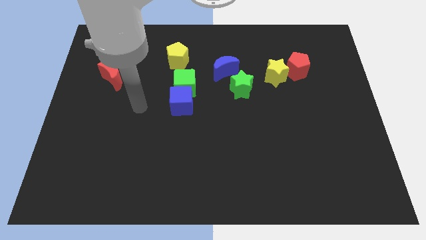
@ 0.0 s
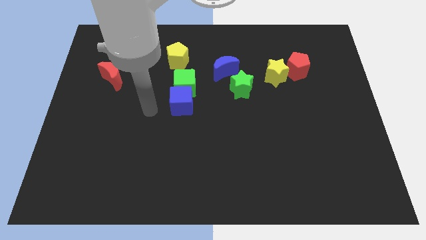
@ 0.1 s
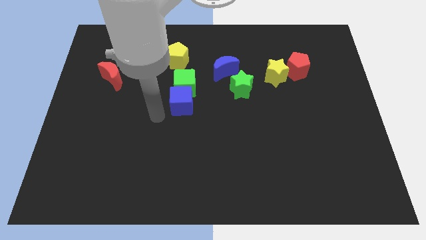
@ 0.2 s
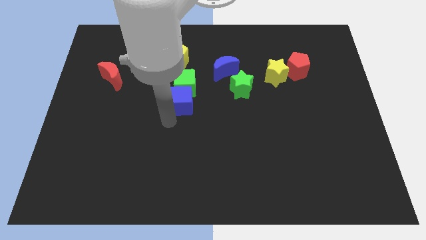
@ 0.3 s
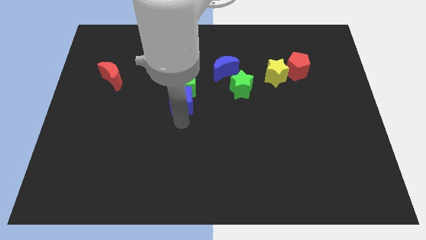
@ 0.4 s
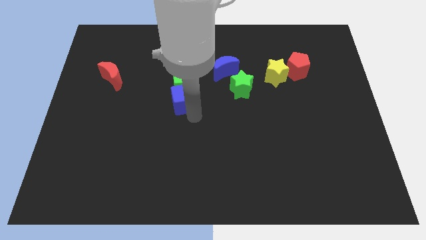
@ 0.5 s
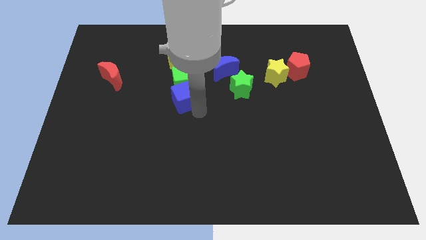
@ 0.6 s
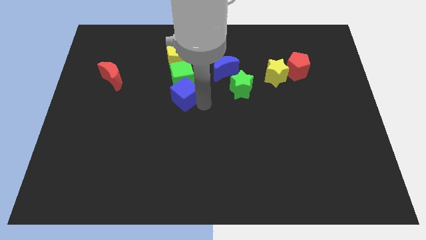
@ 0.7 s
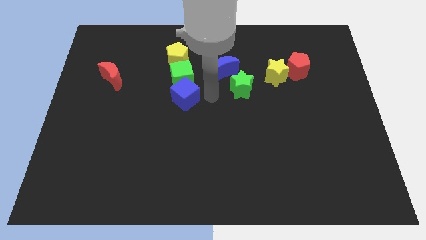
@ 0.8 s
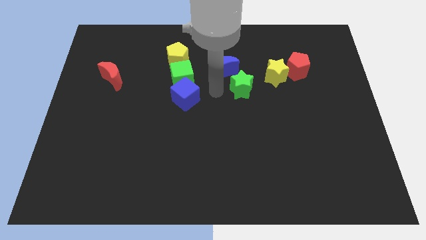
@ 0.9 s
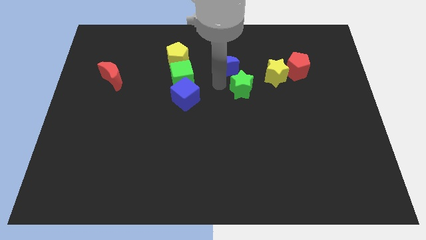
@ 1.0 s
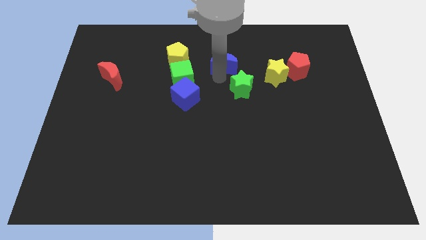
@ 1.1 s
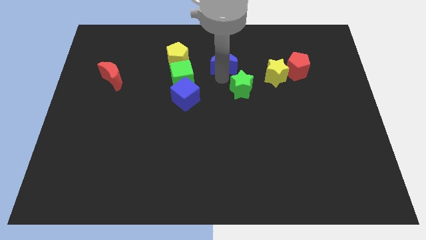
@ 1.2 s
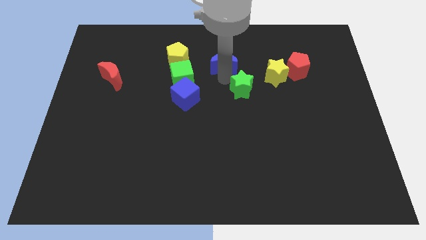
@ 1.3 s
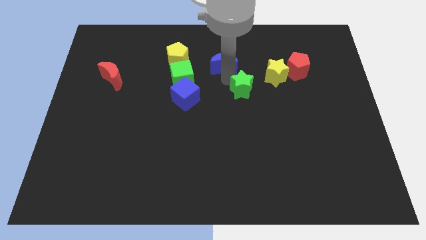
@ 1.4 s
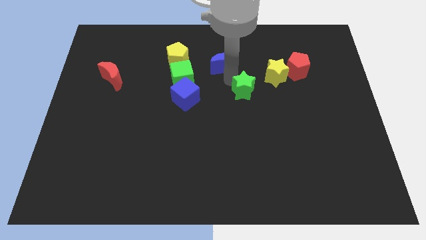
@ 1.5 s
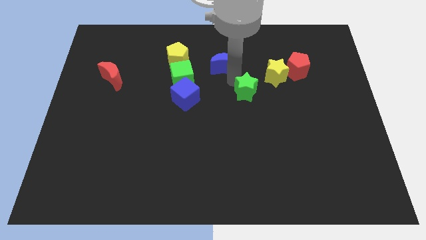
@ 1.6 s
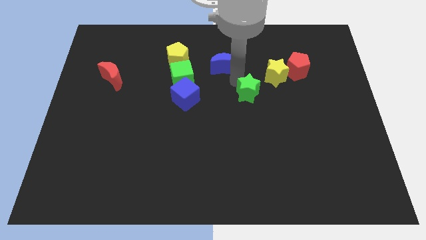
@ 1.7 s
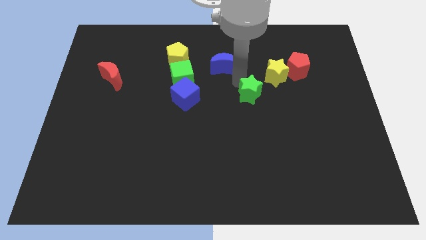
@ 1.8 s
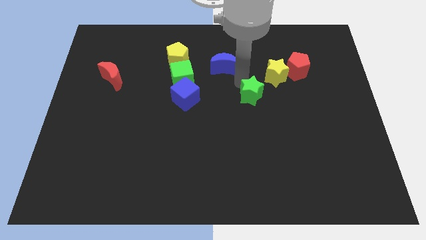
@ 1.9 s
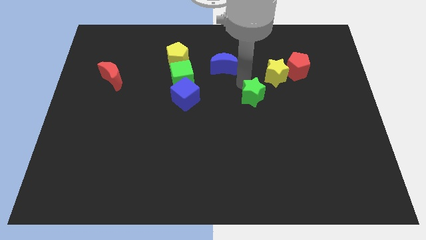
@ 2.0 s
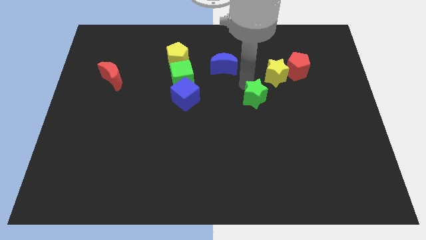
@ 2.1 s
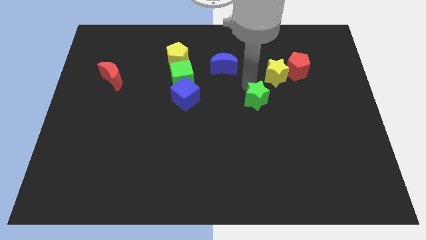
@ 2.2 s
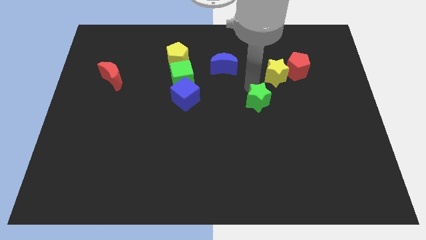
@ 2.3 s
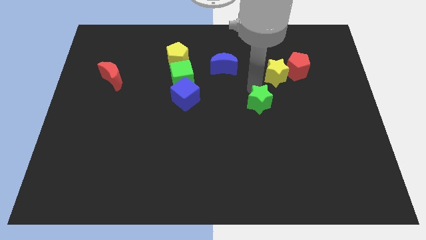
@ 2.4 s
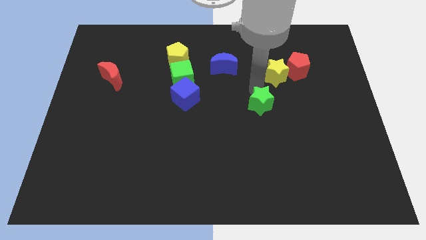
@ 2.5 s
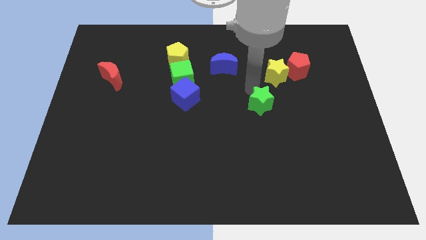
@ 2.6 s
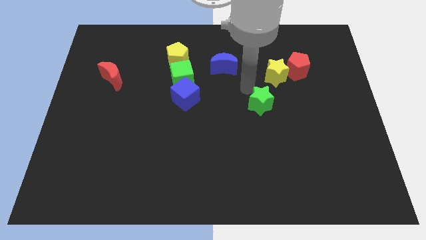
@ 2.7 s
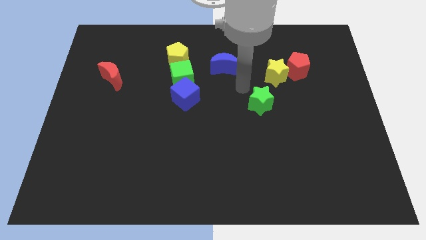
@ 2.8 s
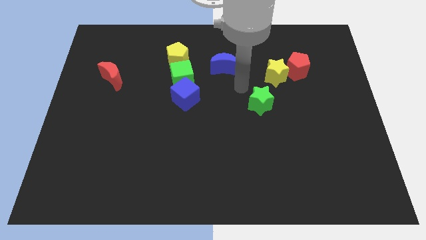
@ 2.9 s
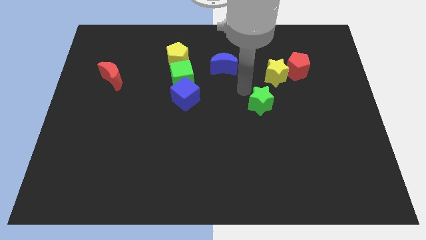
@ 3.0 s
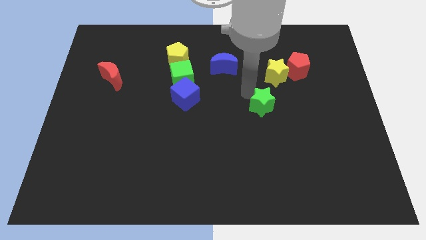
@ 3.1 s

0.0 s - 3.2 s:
slightly move the green star down and to the right

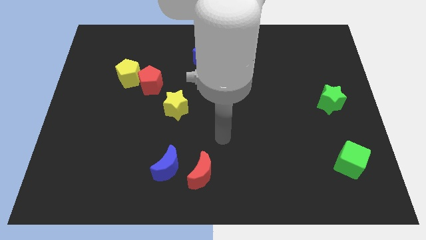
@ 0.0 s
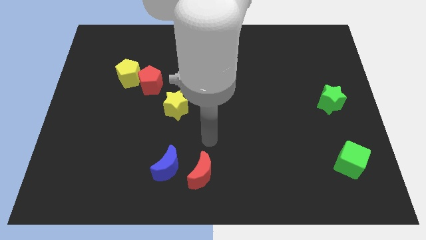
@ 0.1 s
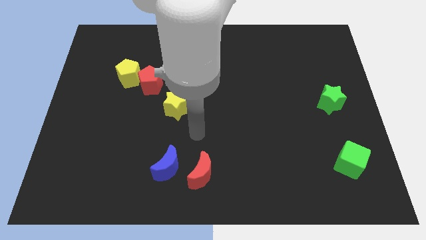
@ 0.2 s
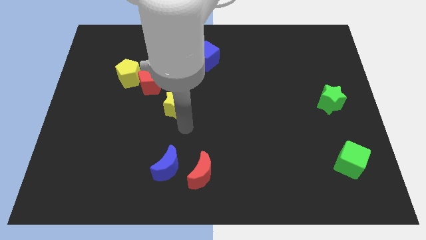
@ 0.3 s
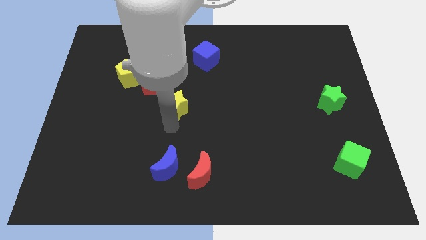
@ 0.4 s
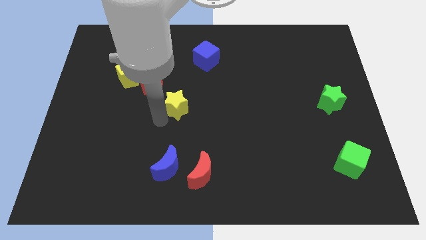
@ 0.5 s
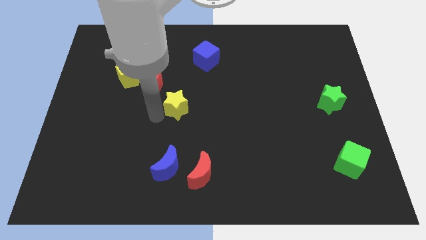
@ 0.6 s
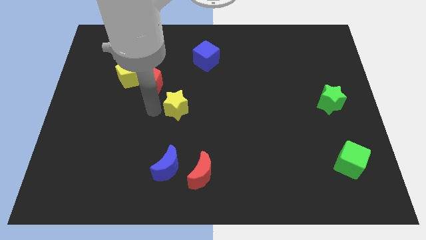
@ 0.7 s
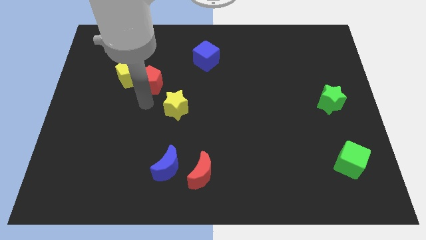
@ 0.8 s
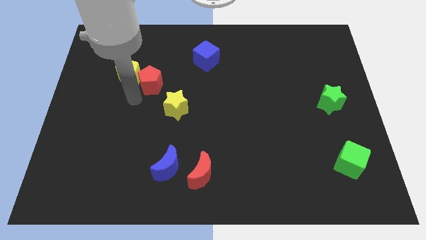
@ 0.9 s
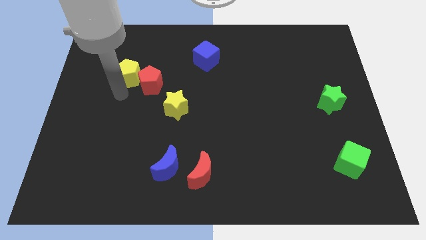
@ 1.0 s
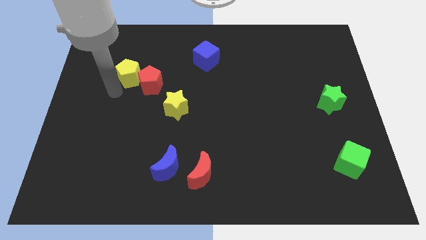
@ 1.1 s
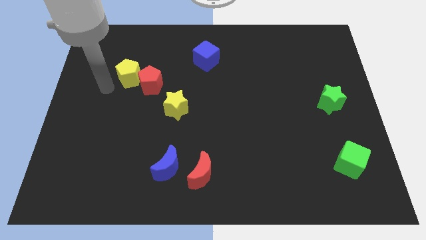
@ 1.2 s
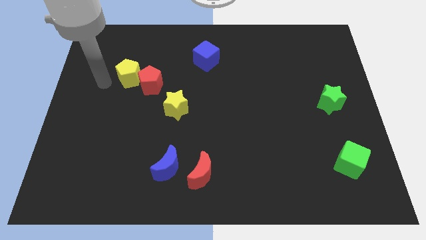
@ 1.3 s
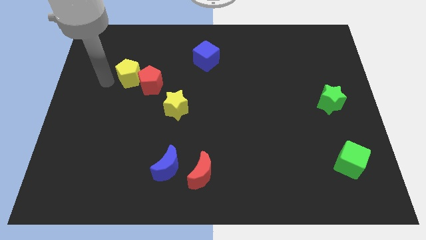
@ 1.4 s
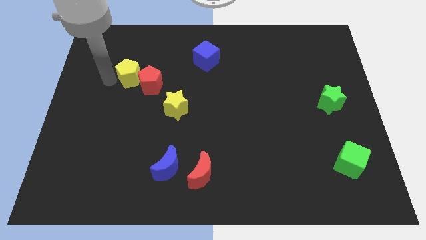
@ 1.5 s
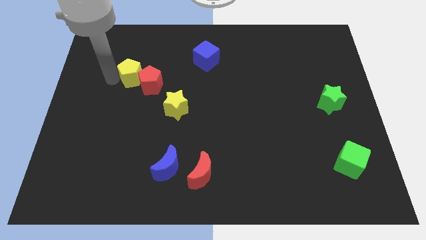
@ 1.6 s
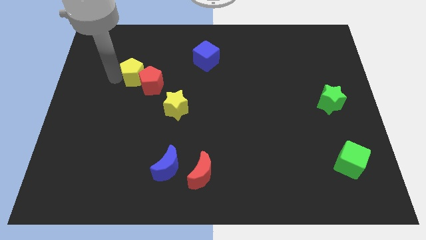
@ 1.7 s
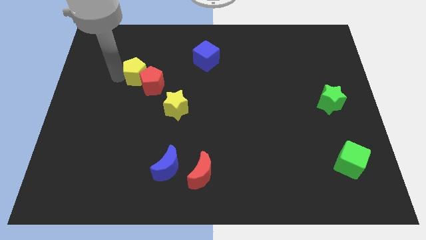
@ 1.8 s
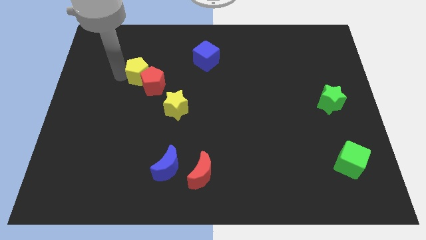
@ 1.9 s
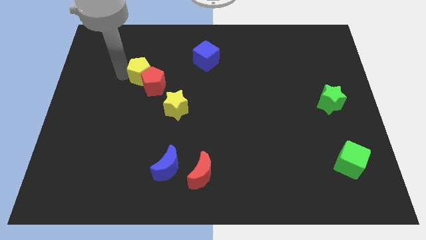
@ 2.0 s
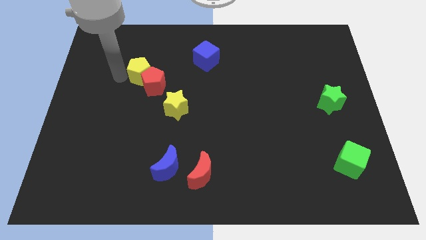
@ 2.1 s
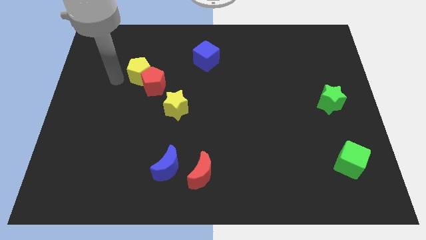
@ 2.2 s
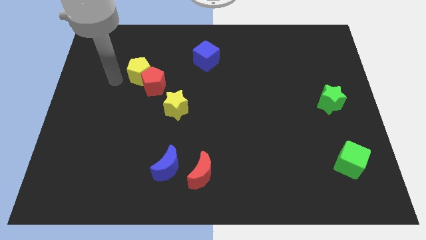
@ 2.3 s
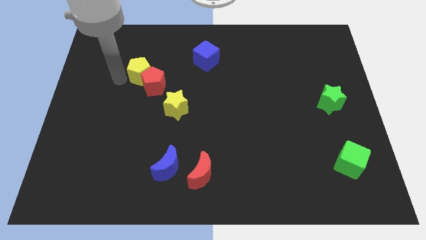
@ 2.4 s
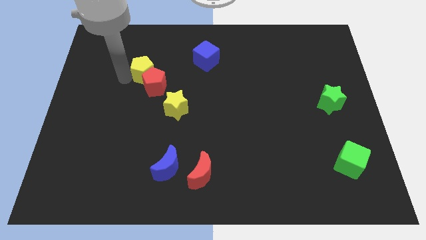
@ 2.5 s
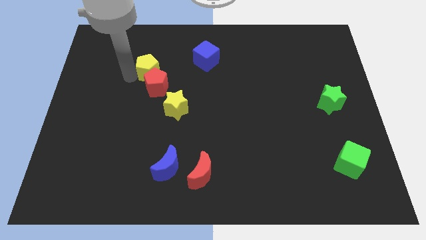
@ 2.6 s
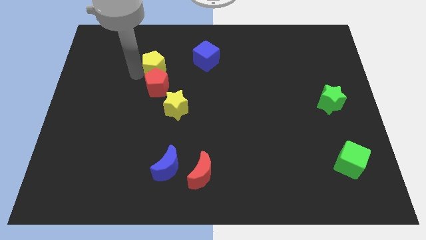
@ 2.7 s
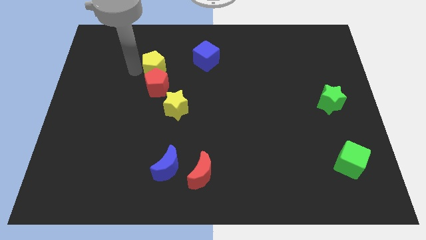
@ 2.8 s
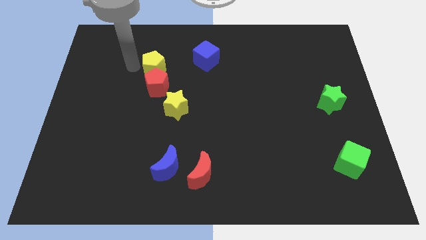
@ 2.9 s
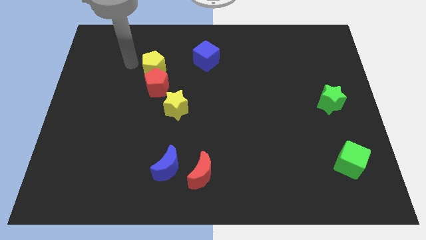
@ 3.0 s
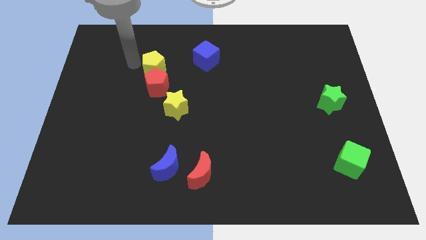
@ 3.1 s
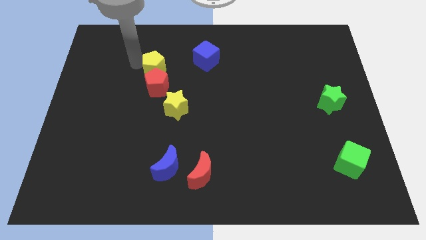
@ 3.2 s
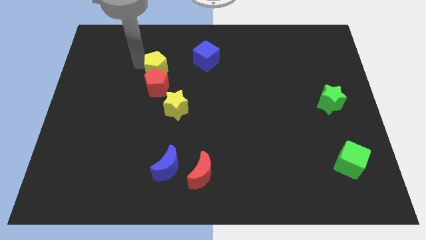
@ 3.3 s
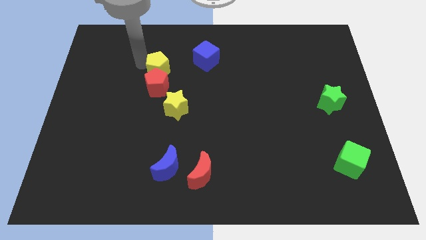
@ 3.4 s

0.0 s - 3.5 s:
push the yellow pentagon a little bit to the right

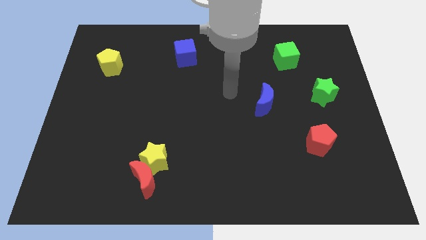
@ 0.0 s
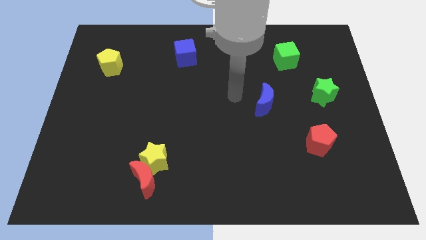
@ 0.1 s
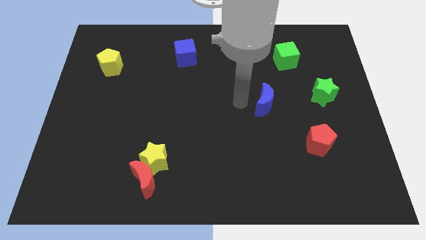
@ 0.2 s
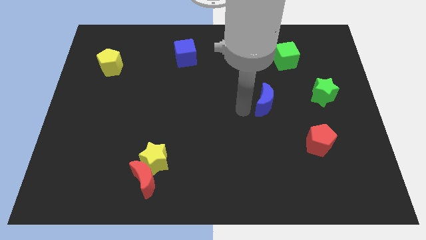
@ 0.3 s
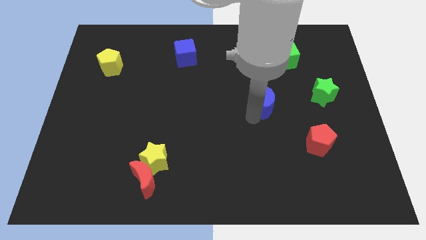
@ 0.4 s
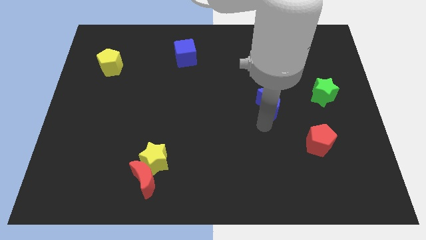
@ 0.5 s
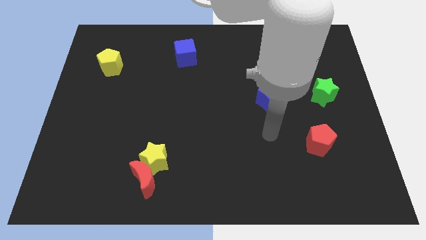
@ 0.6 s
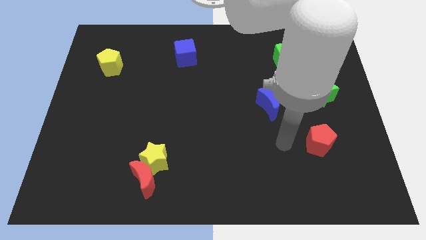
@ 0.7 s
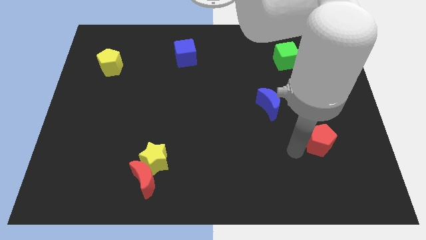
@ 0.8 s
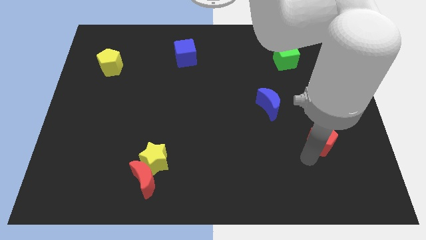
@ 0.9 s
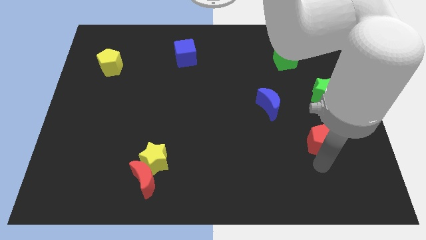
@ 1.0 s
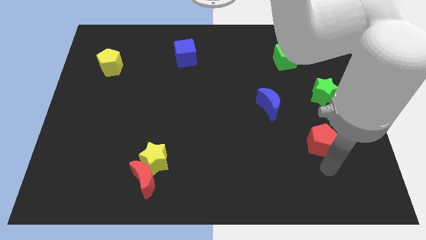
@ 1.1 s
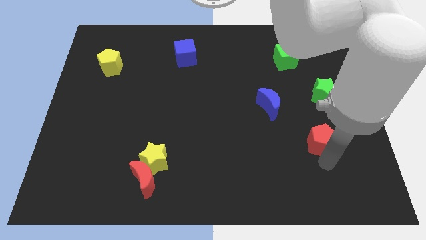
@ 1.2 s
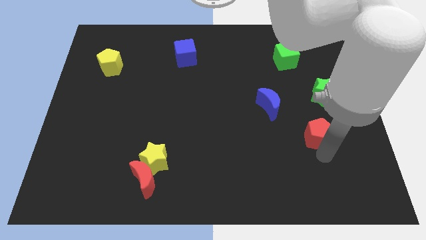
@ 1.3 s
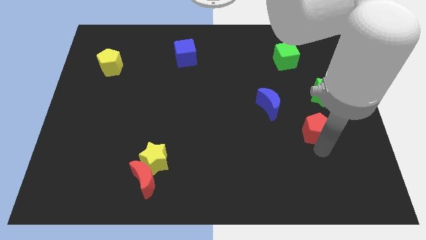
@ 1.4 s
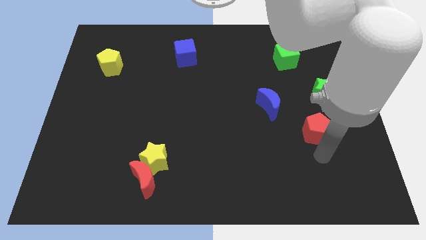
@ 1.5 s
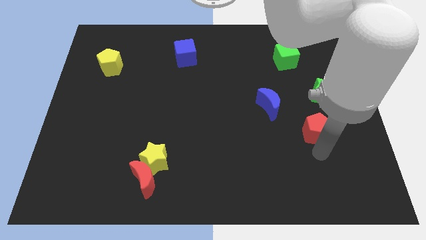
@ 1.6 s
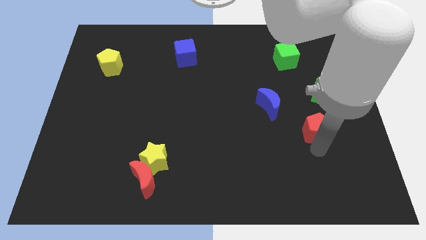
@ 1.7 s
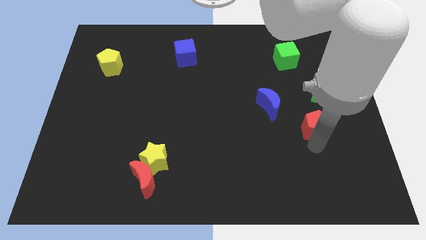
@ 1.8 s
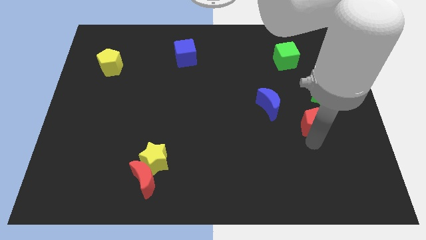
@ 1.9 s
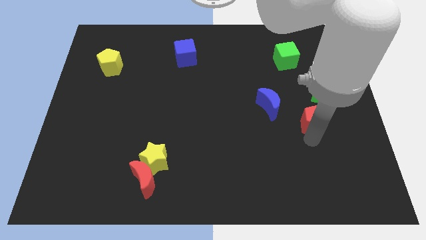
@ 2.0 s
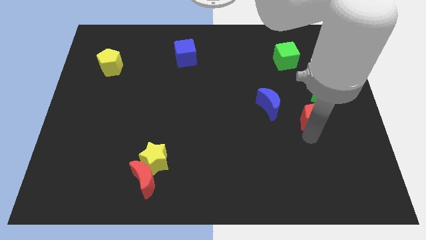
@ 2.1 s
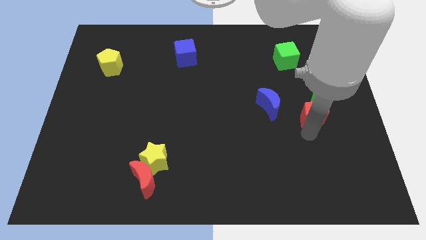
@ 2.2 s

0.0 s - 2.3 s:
slightly slide the red pentagon up
